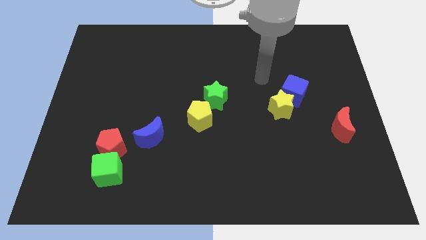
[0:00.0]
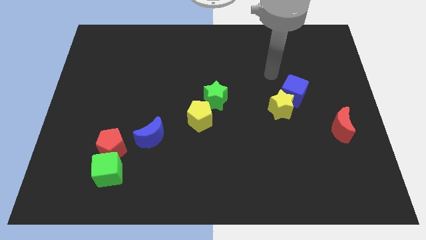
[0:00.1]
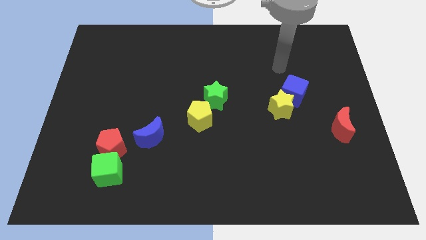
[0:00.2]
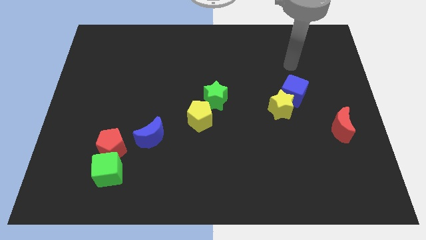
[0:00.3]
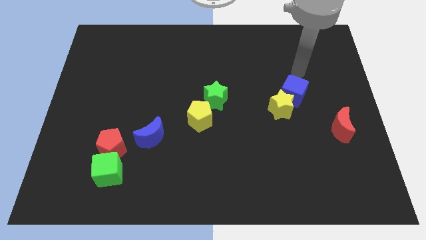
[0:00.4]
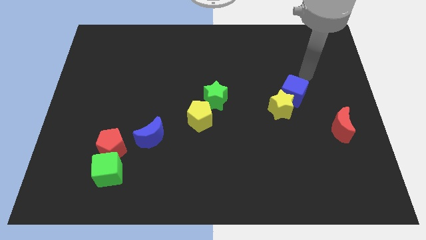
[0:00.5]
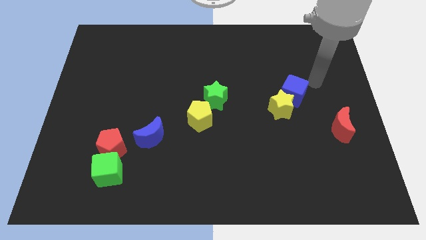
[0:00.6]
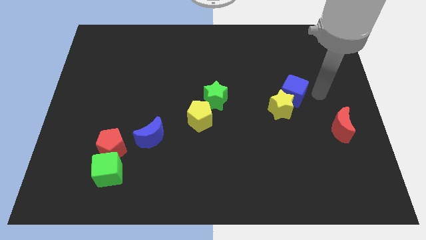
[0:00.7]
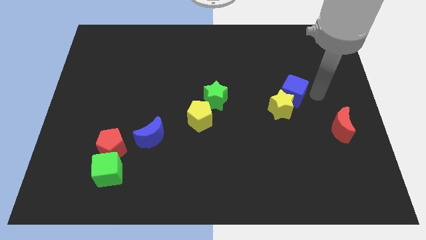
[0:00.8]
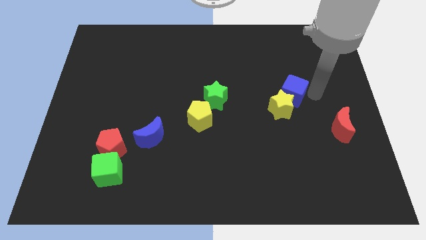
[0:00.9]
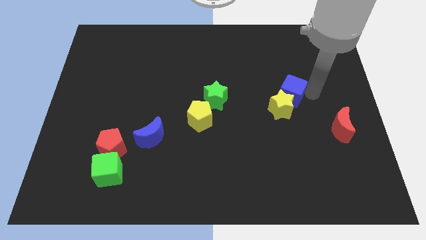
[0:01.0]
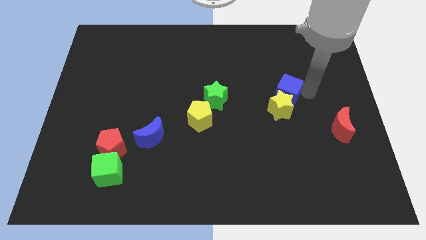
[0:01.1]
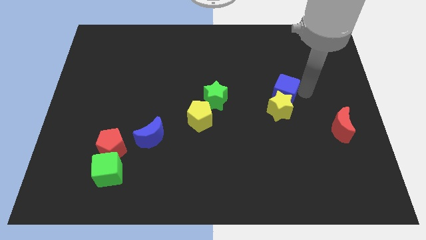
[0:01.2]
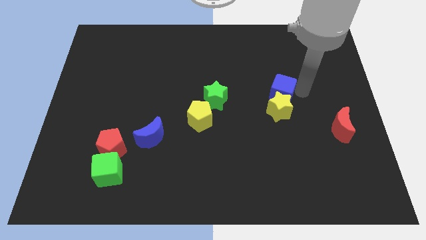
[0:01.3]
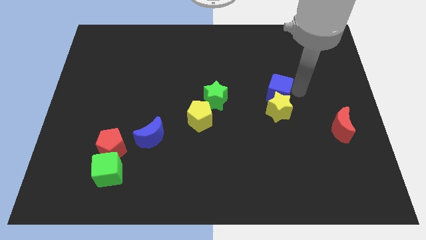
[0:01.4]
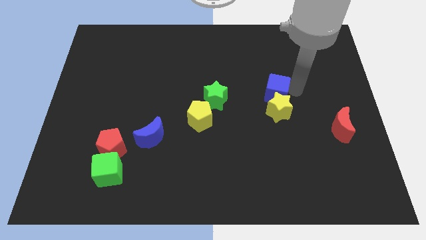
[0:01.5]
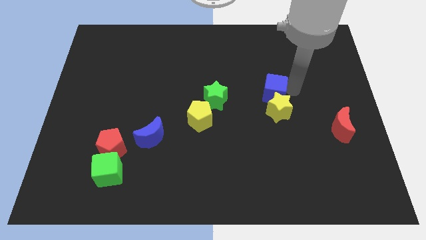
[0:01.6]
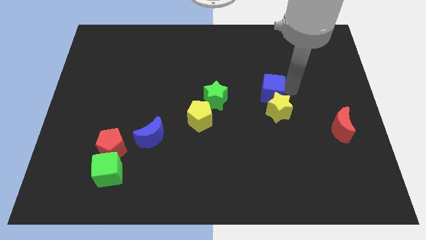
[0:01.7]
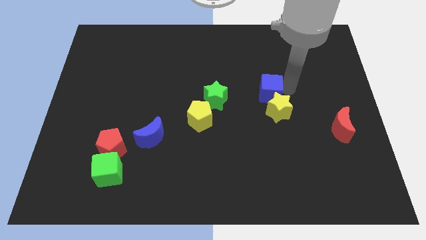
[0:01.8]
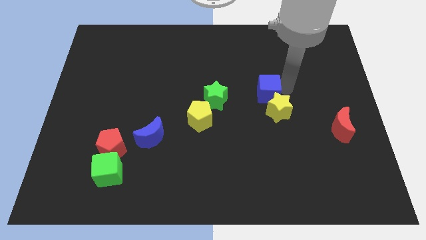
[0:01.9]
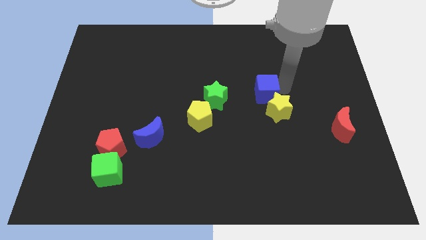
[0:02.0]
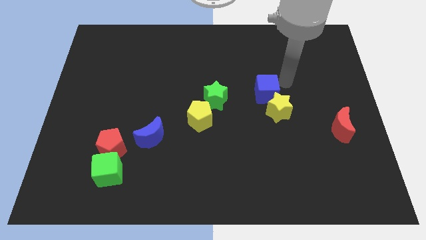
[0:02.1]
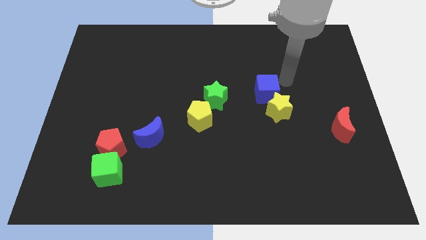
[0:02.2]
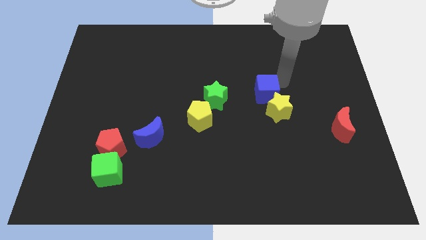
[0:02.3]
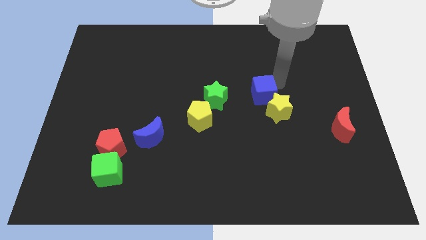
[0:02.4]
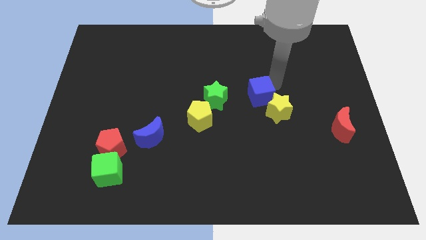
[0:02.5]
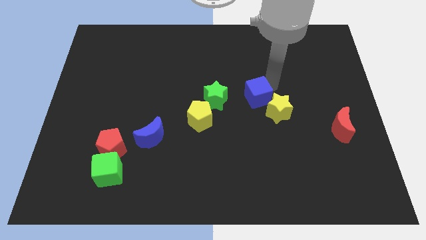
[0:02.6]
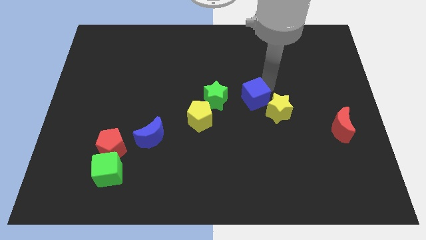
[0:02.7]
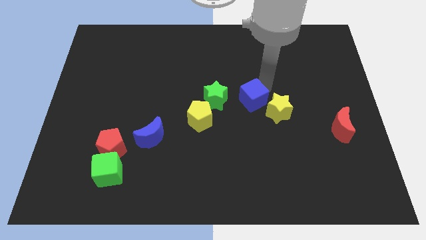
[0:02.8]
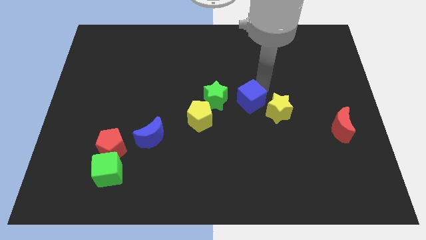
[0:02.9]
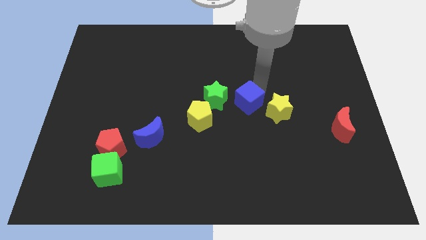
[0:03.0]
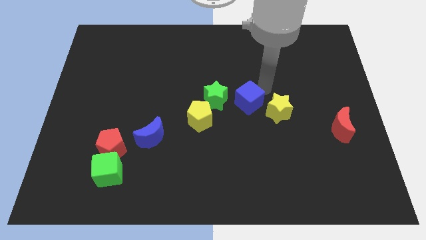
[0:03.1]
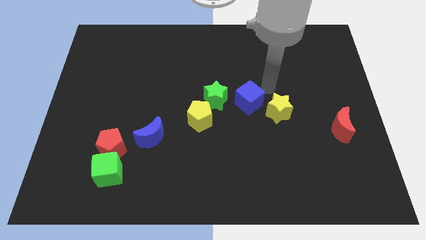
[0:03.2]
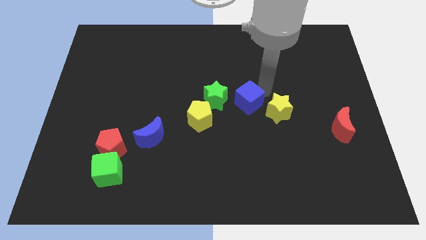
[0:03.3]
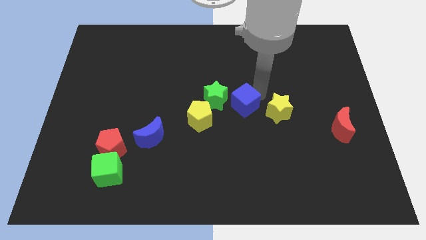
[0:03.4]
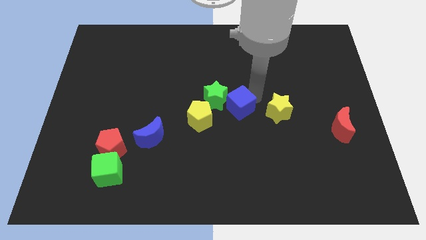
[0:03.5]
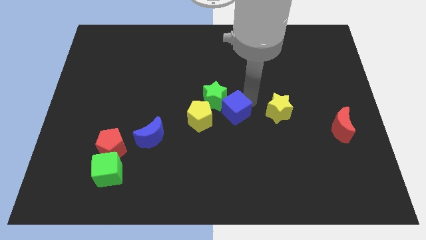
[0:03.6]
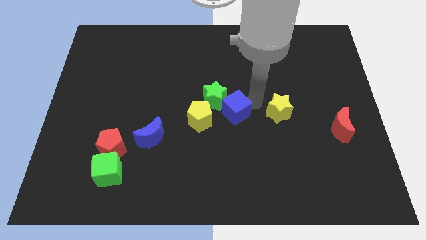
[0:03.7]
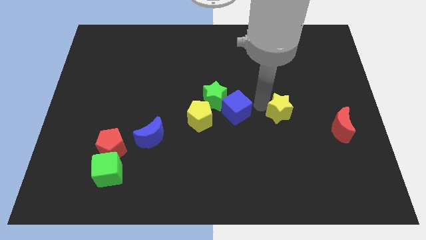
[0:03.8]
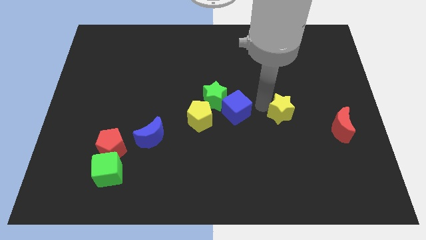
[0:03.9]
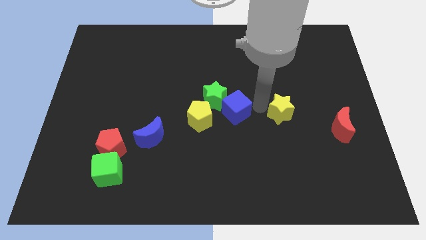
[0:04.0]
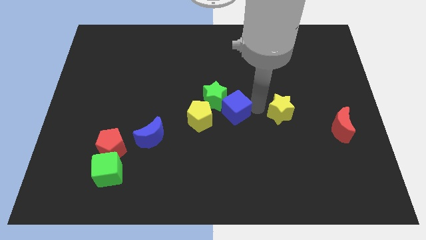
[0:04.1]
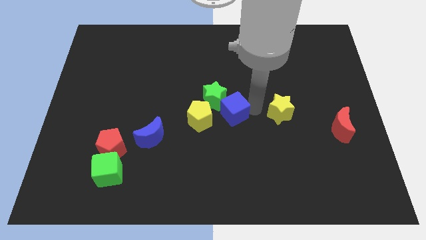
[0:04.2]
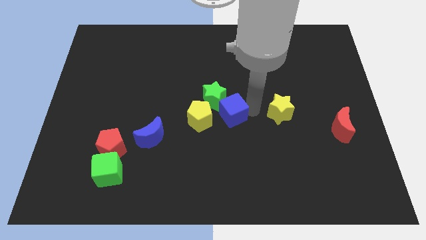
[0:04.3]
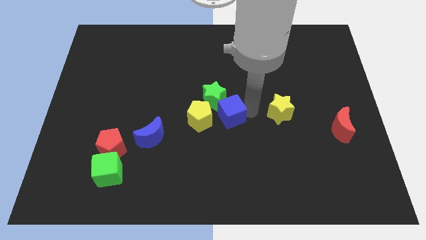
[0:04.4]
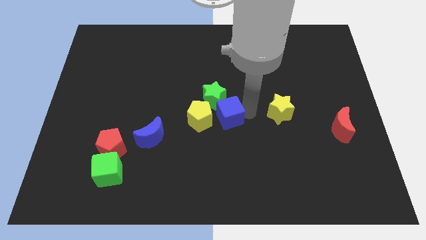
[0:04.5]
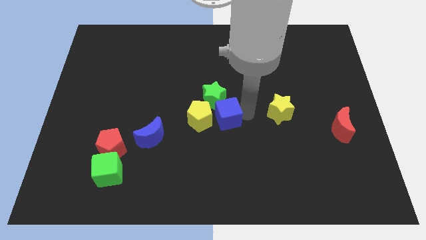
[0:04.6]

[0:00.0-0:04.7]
slide the blue cube to the yellow pentagon

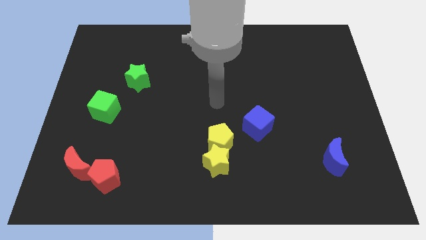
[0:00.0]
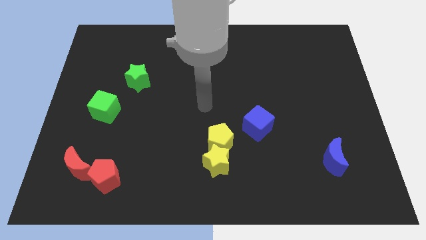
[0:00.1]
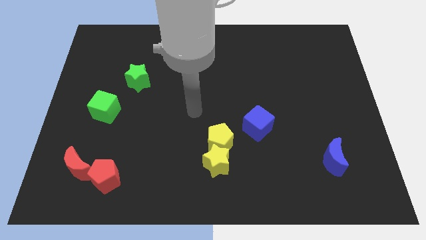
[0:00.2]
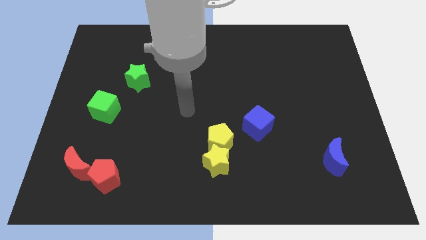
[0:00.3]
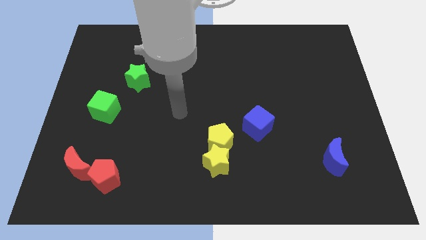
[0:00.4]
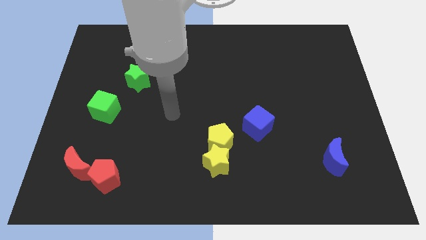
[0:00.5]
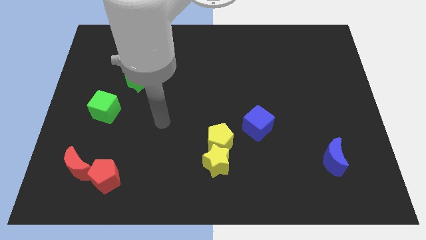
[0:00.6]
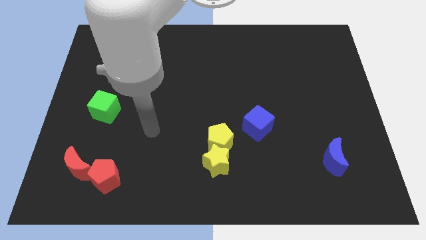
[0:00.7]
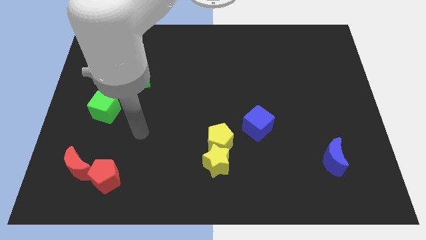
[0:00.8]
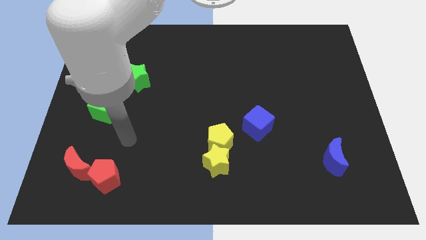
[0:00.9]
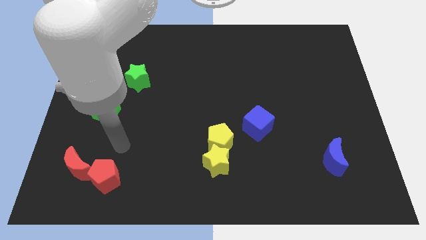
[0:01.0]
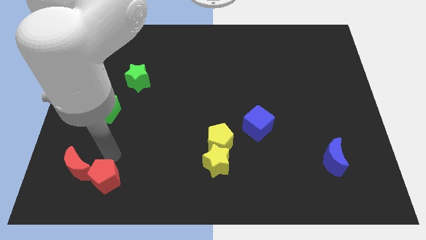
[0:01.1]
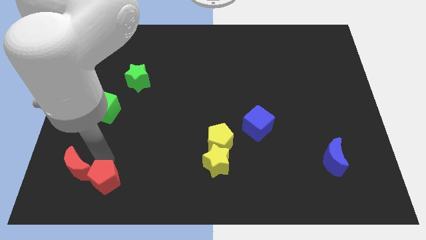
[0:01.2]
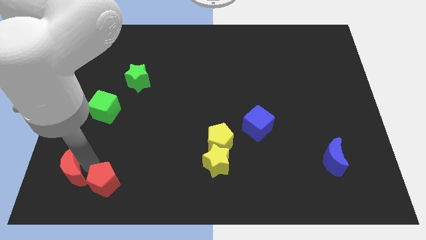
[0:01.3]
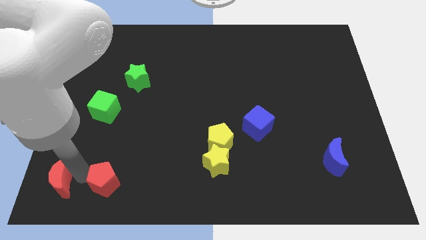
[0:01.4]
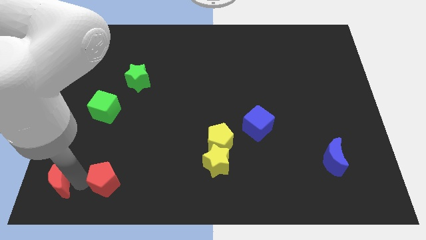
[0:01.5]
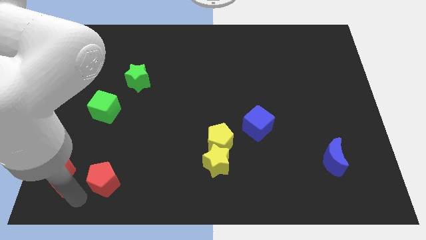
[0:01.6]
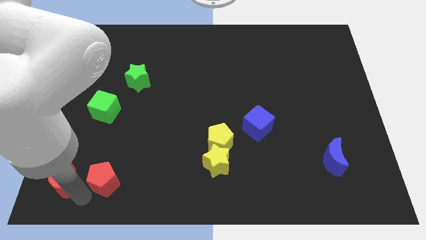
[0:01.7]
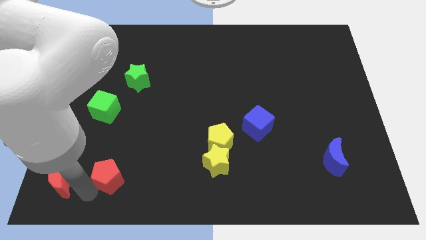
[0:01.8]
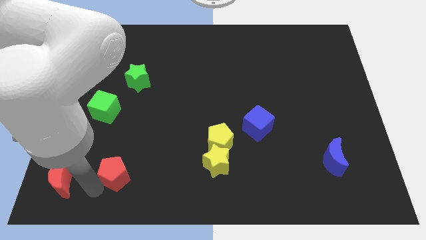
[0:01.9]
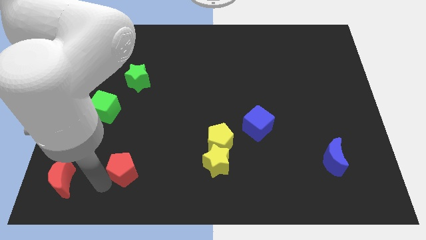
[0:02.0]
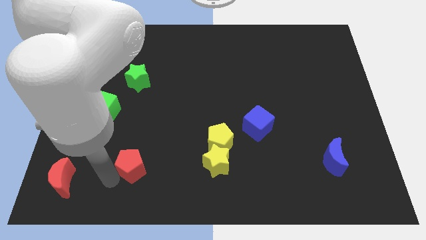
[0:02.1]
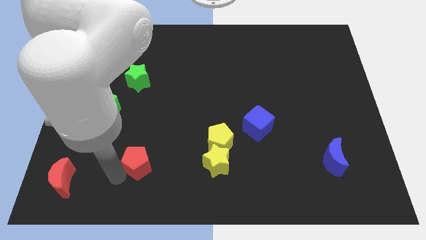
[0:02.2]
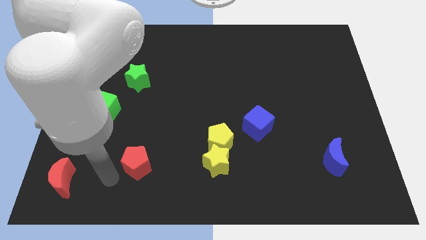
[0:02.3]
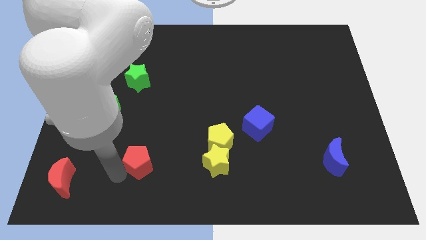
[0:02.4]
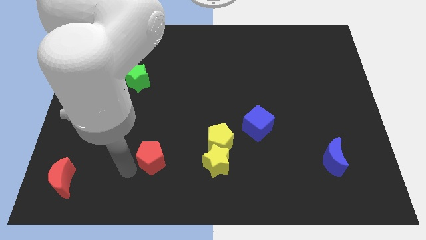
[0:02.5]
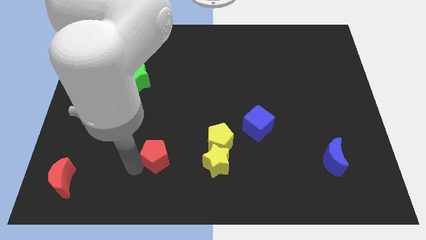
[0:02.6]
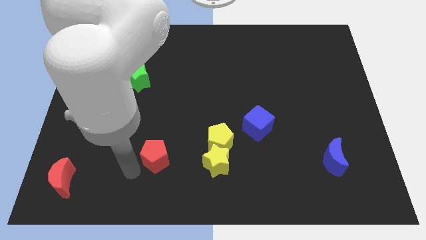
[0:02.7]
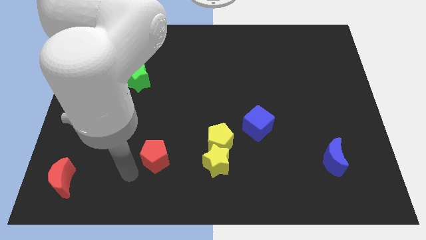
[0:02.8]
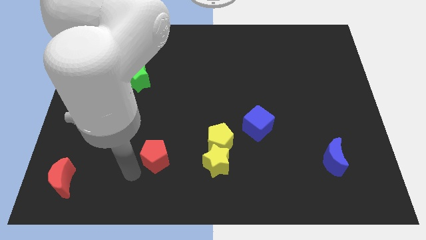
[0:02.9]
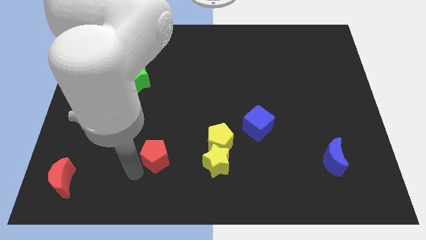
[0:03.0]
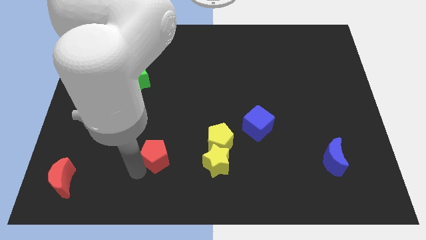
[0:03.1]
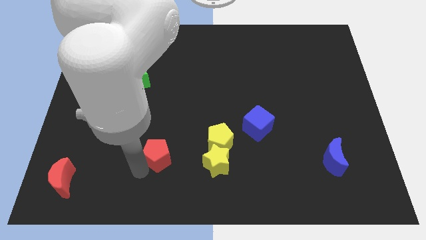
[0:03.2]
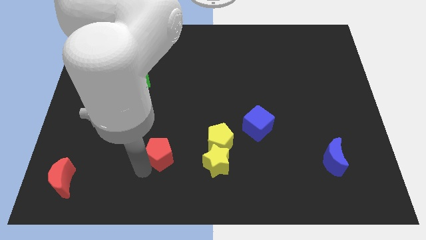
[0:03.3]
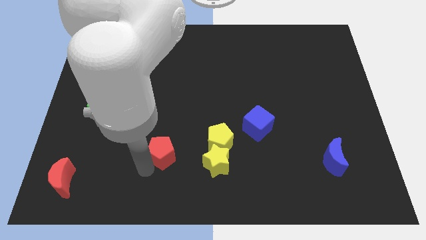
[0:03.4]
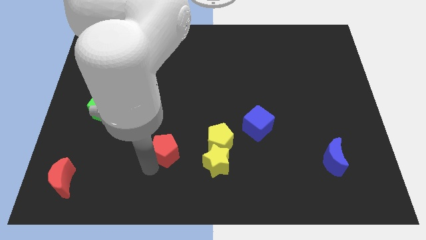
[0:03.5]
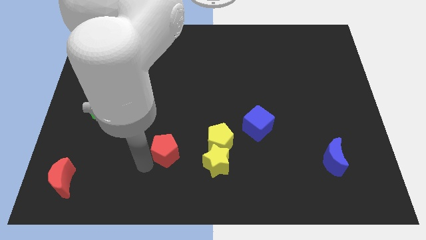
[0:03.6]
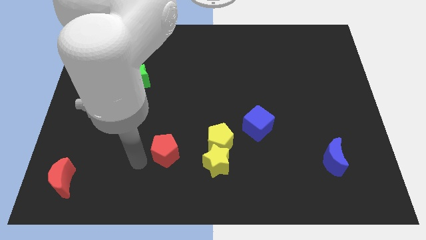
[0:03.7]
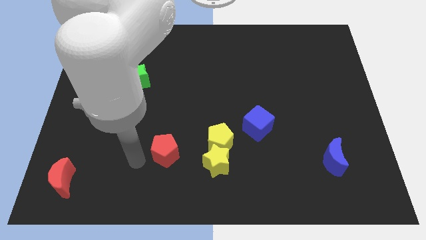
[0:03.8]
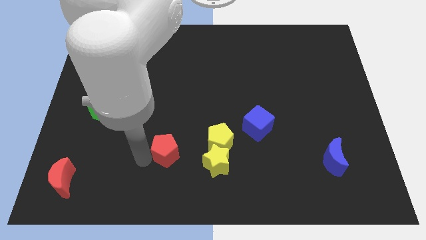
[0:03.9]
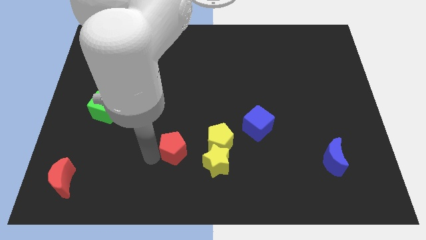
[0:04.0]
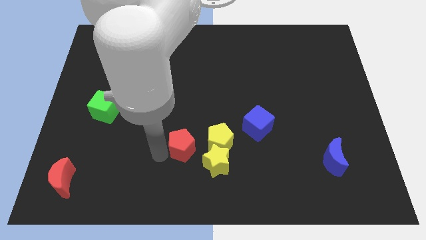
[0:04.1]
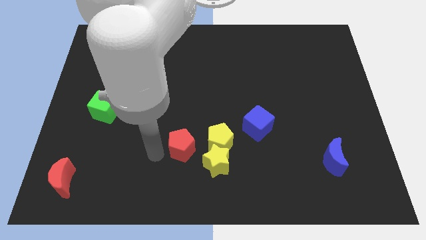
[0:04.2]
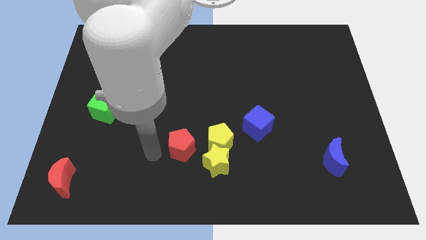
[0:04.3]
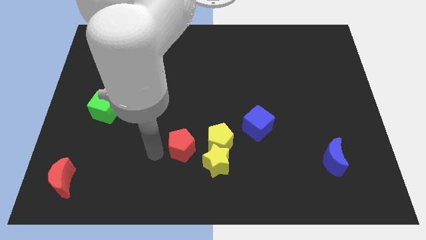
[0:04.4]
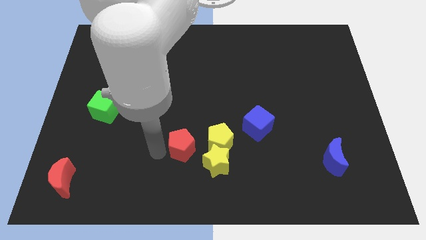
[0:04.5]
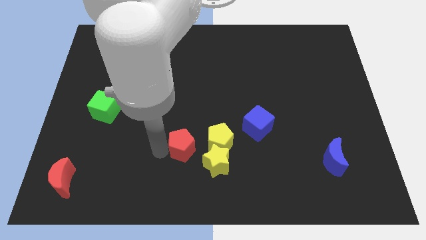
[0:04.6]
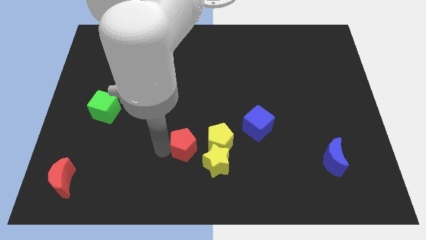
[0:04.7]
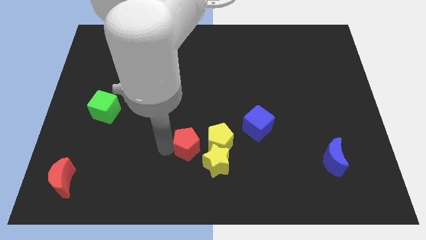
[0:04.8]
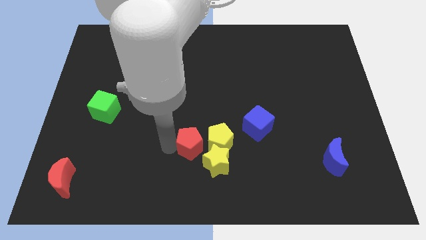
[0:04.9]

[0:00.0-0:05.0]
push the red pentagon to the yellow pentagon
